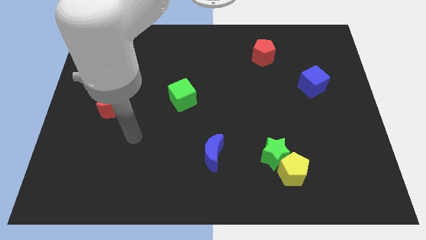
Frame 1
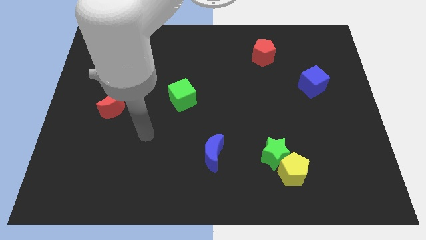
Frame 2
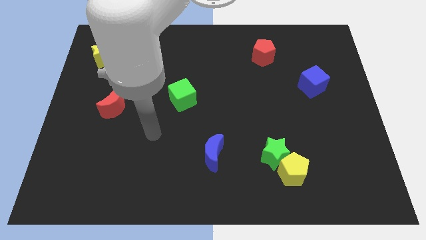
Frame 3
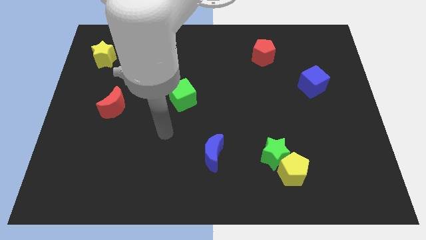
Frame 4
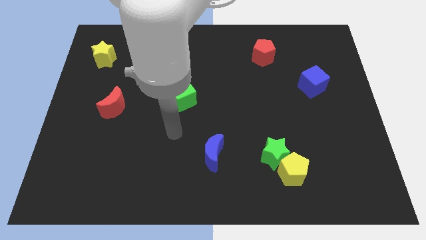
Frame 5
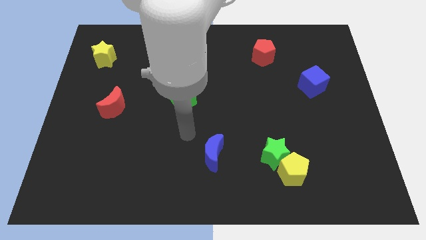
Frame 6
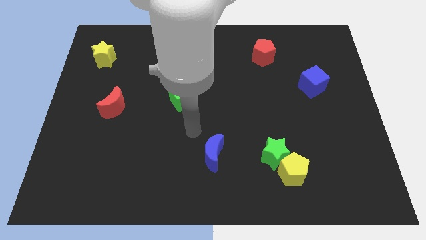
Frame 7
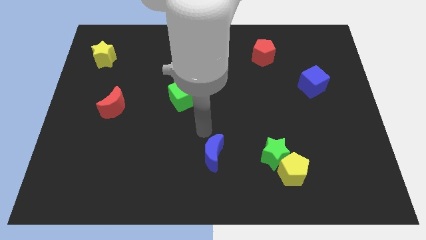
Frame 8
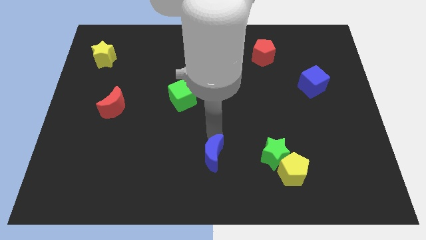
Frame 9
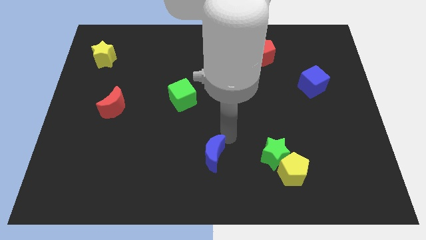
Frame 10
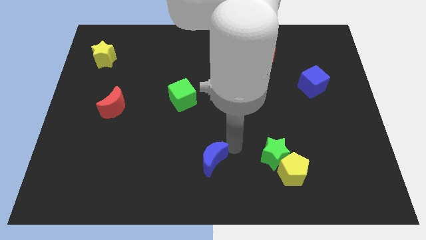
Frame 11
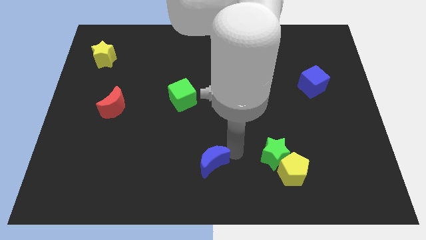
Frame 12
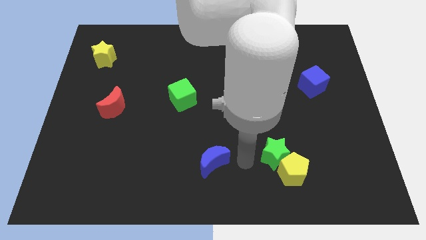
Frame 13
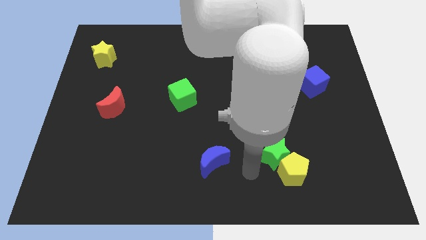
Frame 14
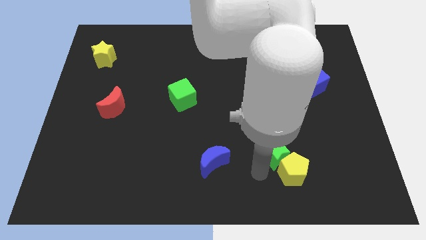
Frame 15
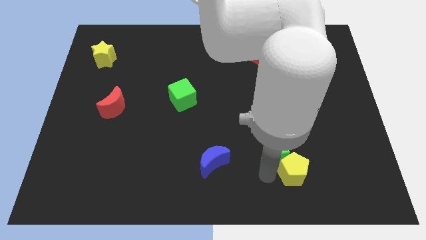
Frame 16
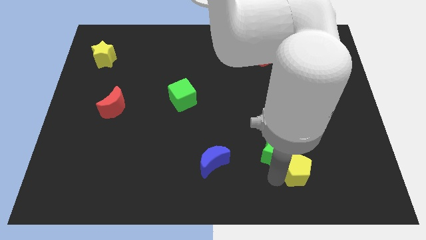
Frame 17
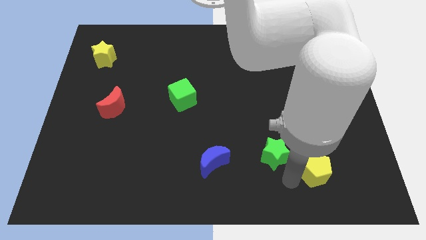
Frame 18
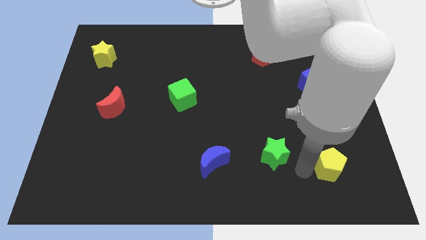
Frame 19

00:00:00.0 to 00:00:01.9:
separate the green star from the yellow pentagon

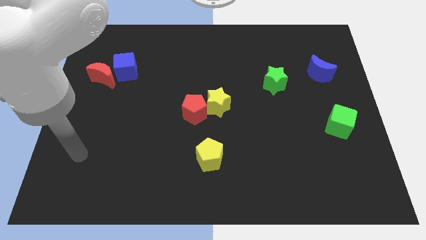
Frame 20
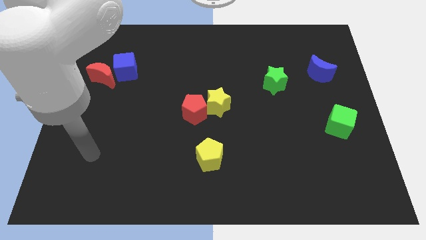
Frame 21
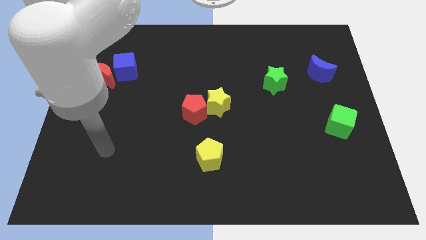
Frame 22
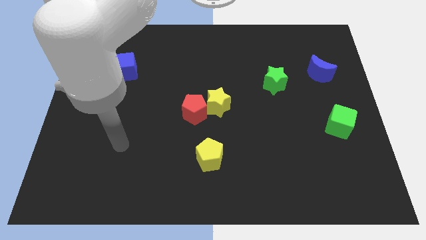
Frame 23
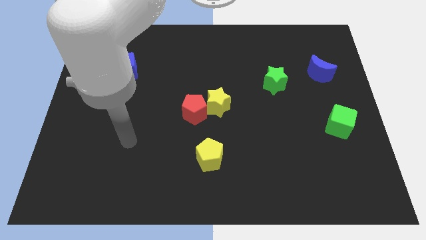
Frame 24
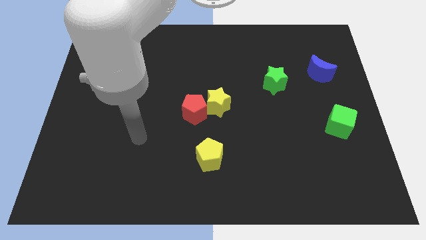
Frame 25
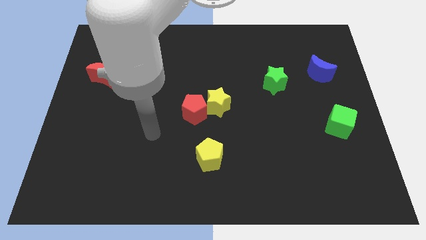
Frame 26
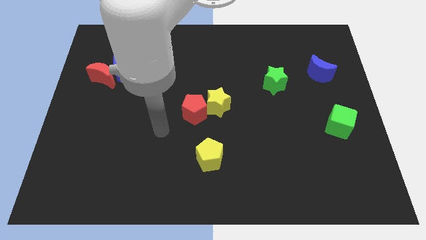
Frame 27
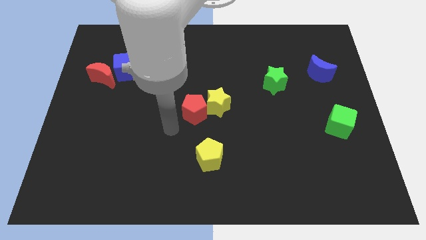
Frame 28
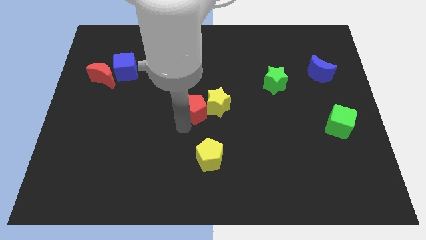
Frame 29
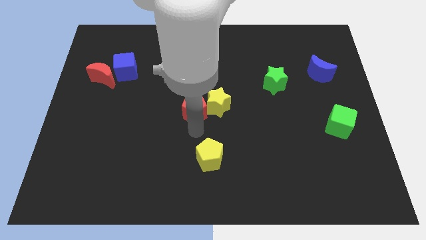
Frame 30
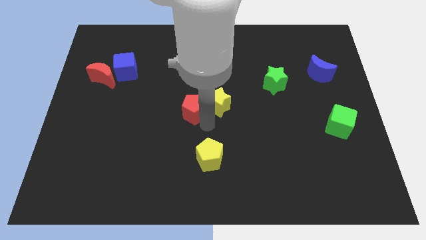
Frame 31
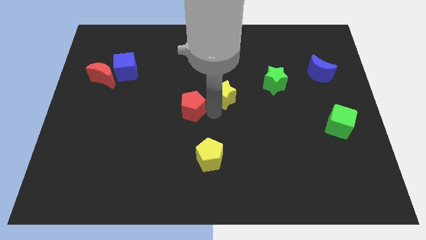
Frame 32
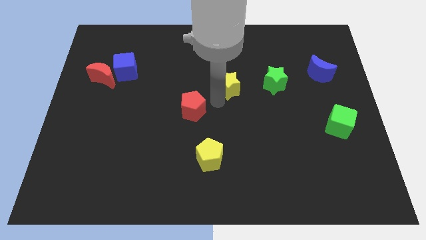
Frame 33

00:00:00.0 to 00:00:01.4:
move the red pentagon away from the yellow star

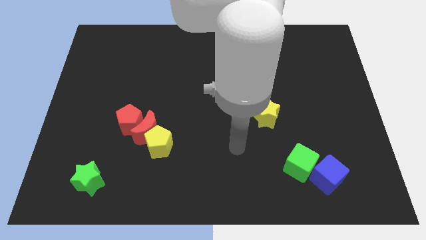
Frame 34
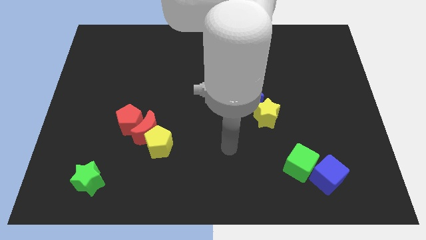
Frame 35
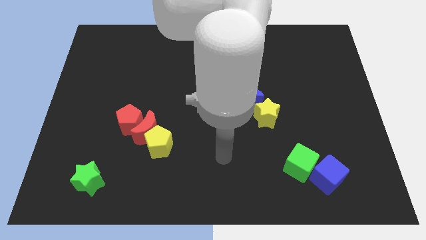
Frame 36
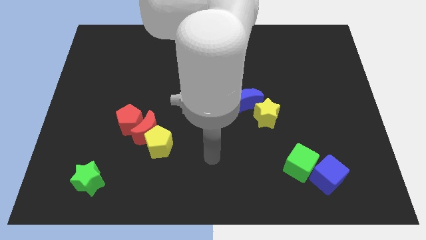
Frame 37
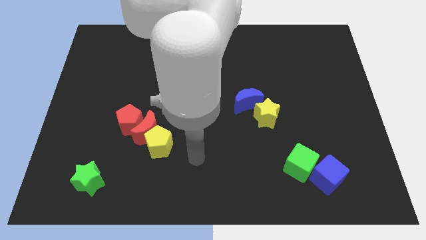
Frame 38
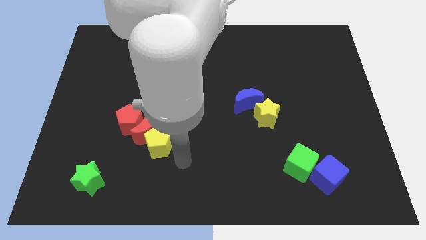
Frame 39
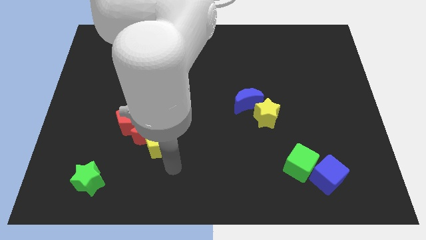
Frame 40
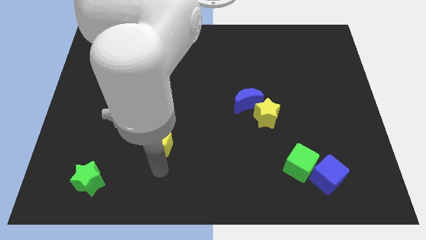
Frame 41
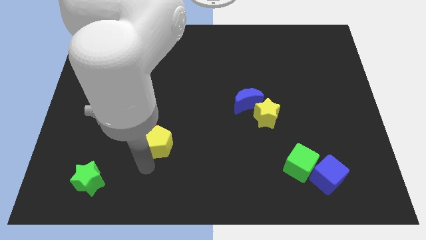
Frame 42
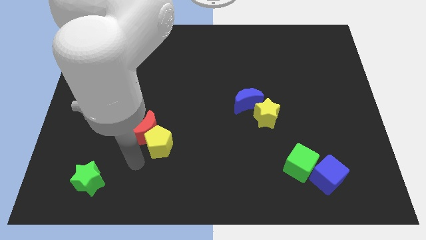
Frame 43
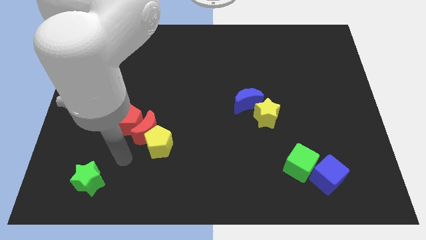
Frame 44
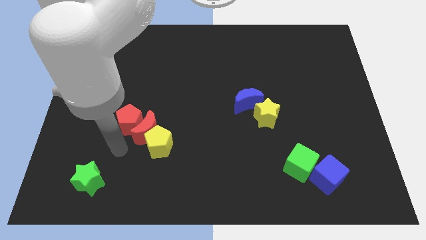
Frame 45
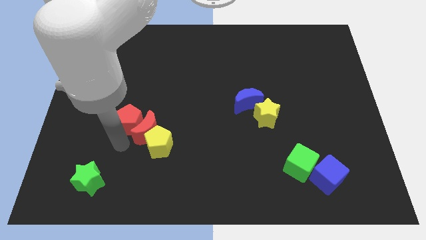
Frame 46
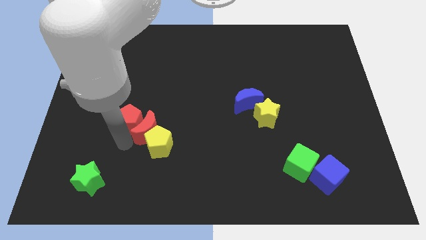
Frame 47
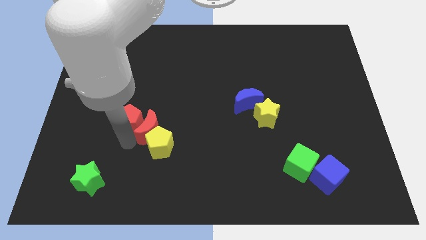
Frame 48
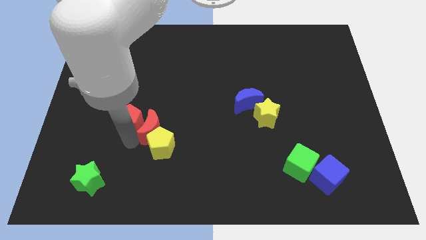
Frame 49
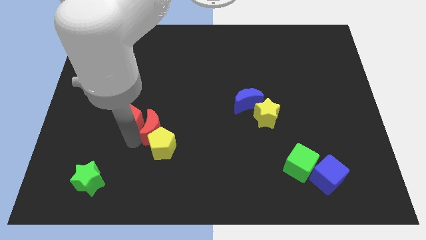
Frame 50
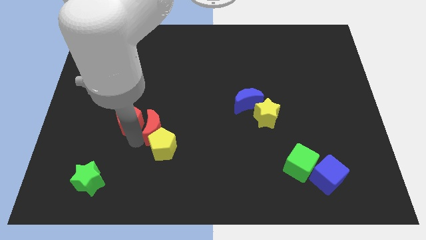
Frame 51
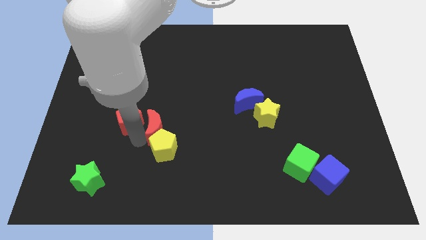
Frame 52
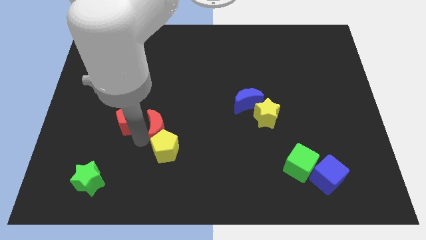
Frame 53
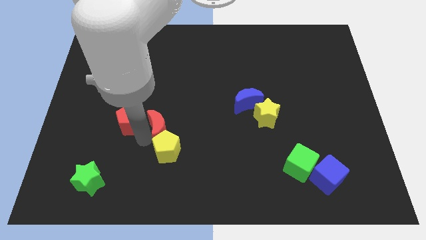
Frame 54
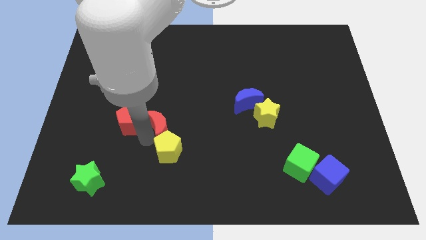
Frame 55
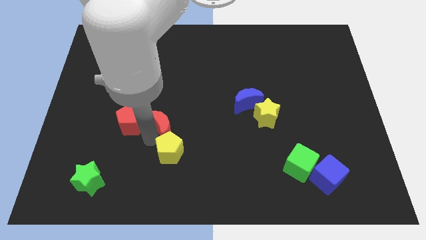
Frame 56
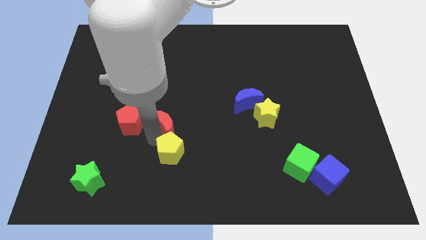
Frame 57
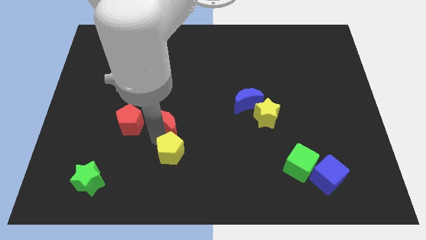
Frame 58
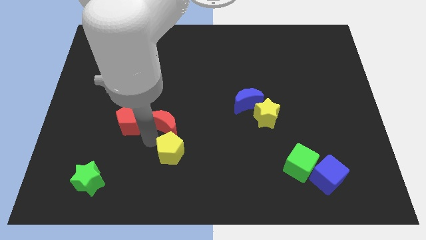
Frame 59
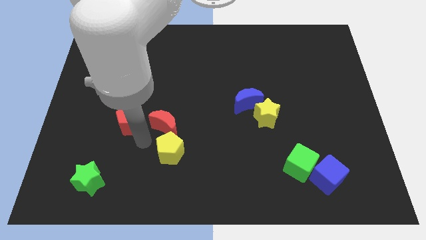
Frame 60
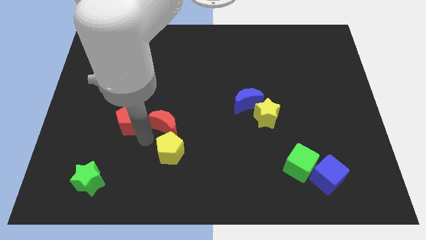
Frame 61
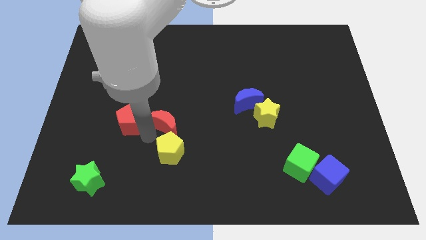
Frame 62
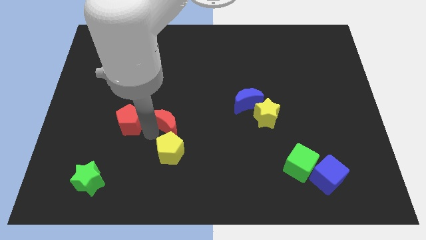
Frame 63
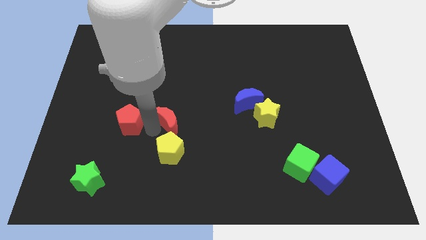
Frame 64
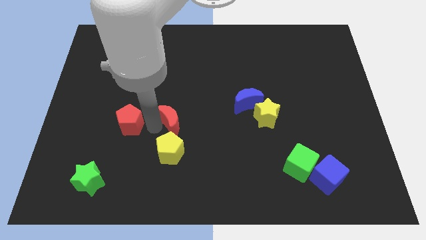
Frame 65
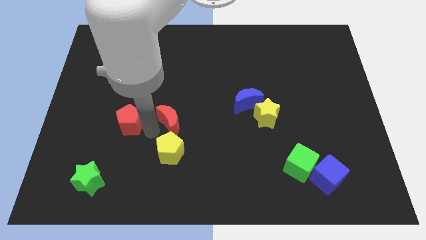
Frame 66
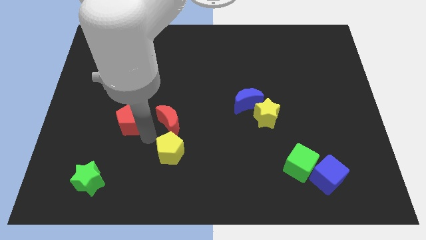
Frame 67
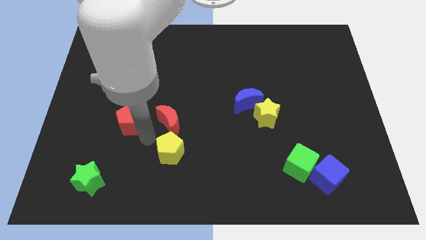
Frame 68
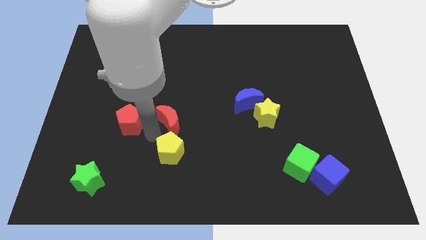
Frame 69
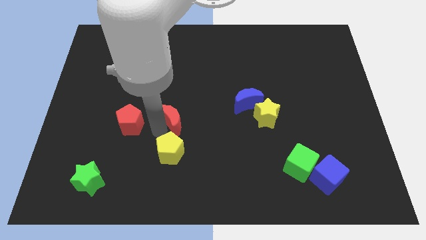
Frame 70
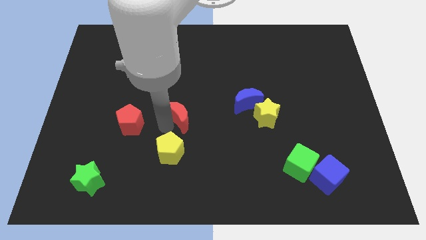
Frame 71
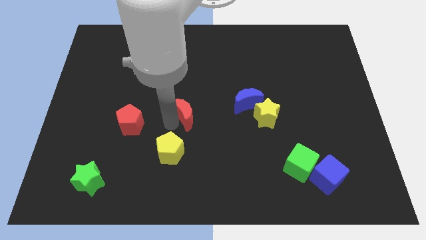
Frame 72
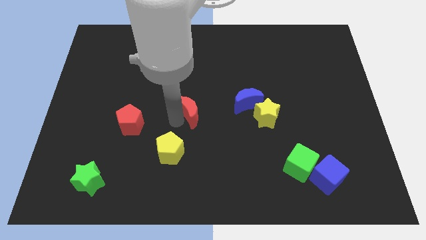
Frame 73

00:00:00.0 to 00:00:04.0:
separate the red moon from the yellow pentagon and red pentagon

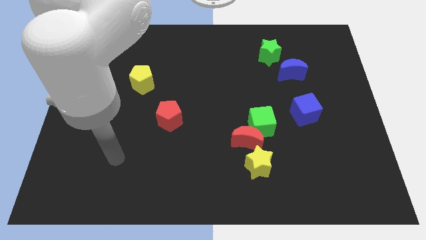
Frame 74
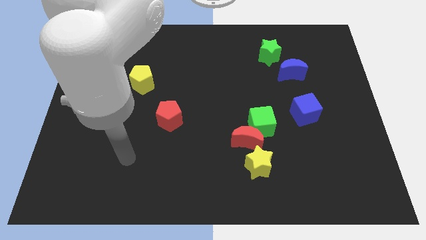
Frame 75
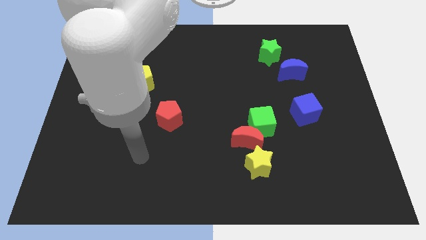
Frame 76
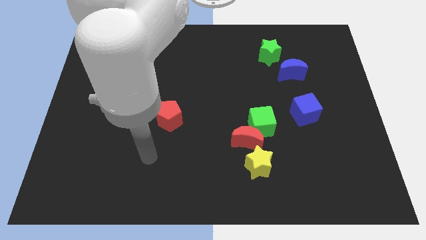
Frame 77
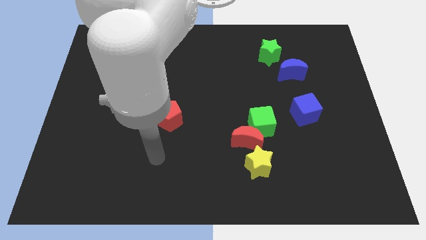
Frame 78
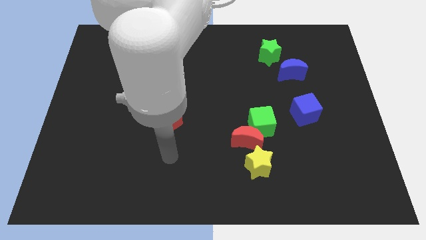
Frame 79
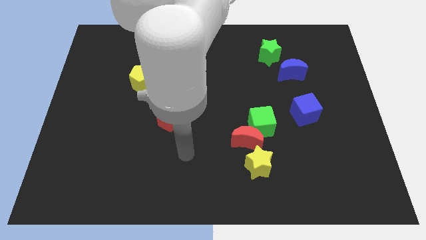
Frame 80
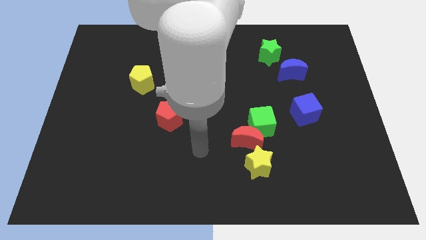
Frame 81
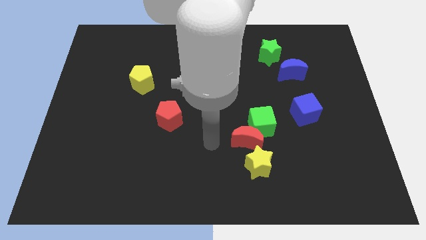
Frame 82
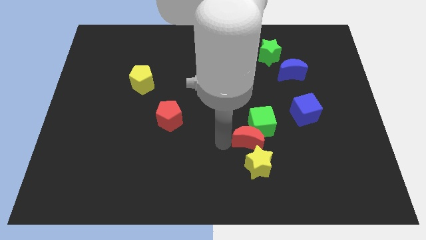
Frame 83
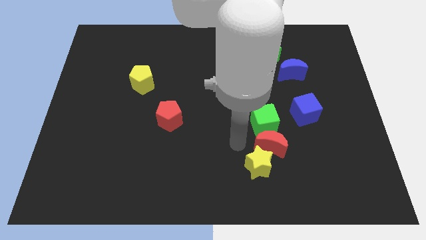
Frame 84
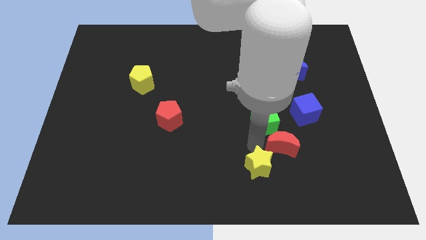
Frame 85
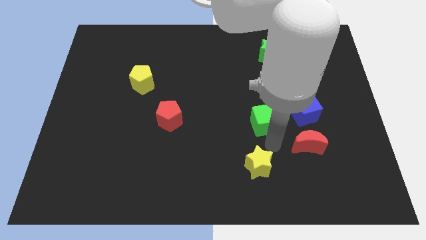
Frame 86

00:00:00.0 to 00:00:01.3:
pull the green cube apart from the red moon

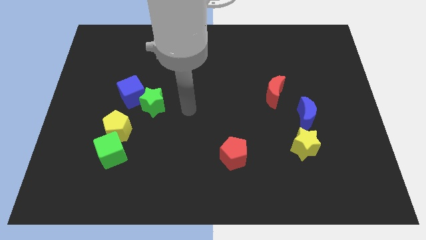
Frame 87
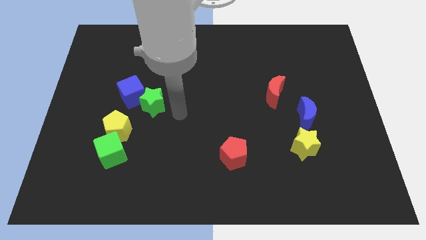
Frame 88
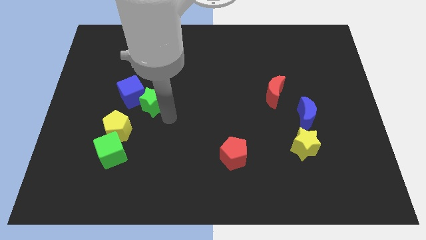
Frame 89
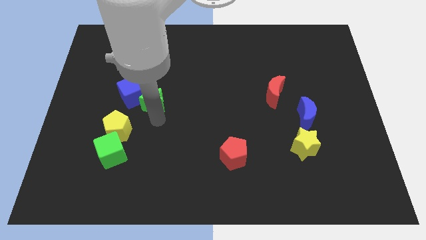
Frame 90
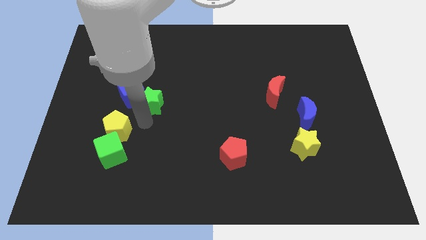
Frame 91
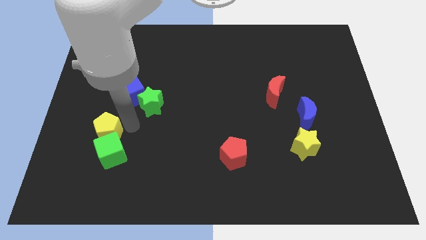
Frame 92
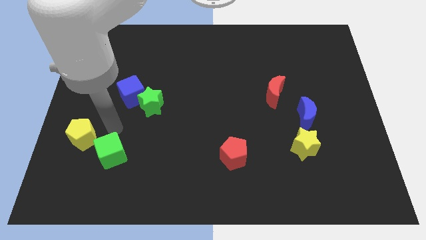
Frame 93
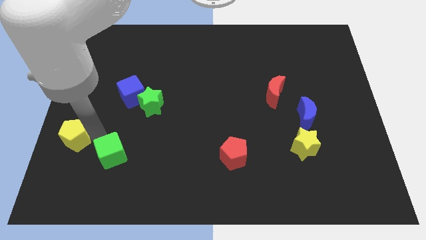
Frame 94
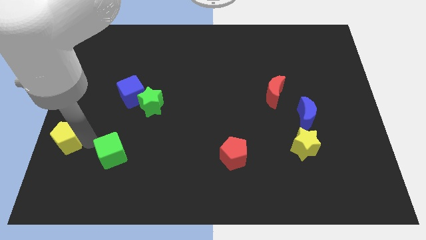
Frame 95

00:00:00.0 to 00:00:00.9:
pull the green cube apart from the yellow pentagon
